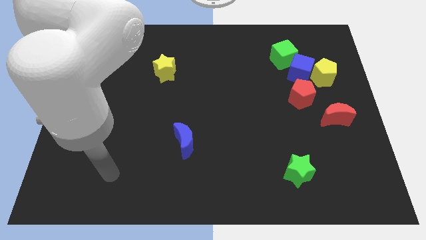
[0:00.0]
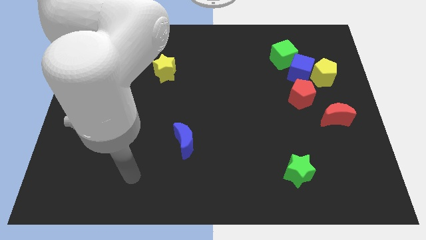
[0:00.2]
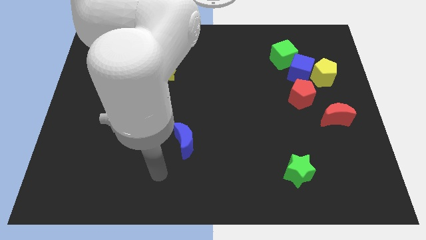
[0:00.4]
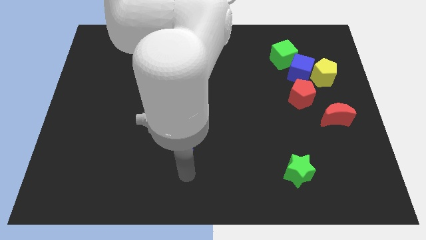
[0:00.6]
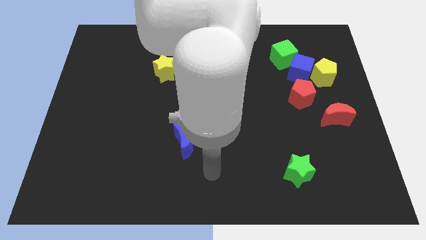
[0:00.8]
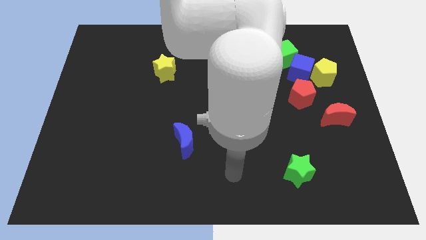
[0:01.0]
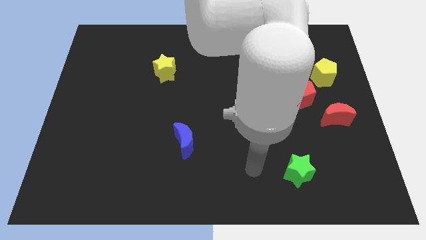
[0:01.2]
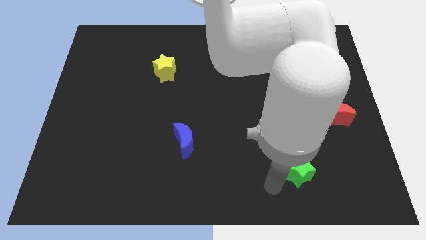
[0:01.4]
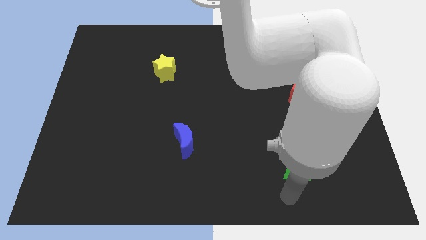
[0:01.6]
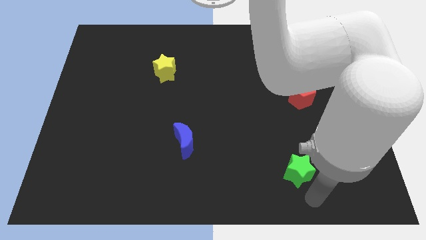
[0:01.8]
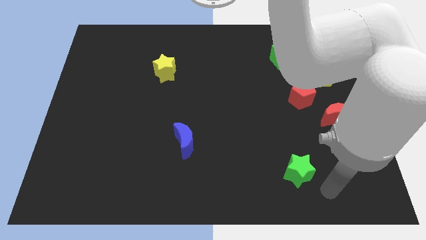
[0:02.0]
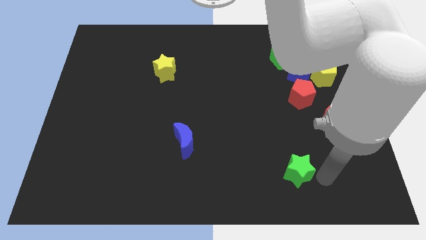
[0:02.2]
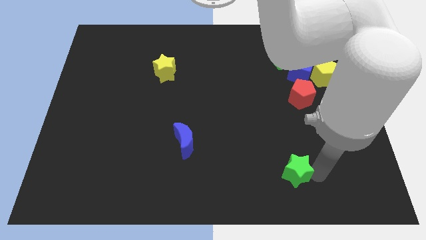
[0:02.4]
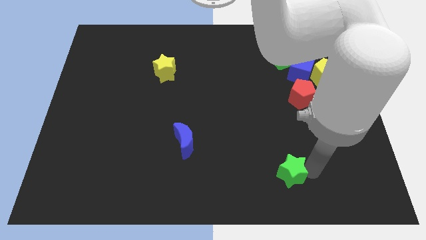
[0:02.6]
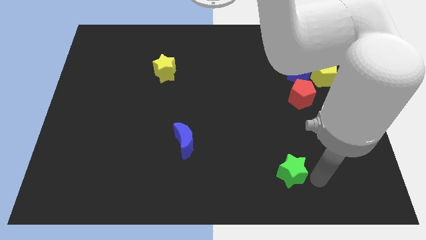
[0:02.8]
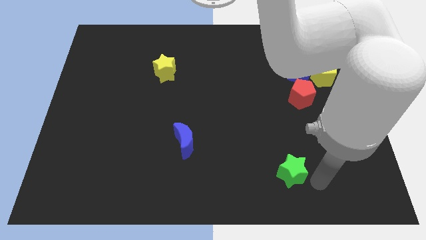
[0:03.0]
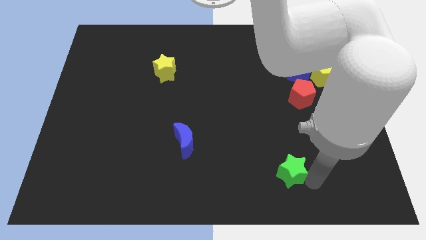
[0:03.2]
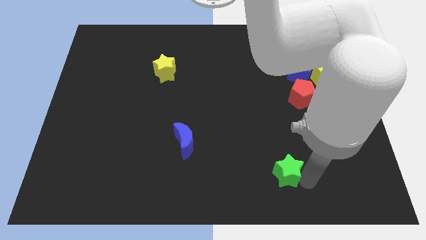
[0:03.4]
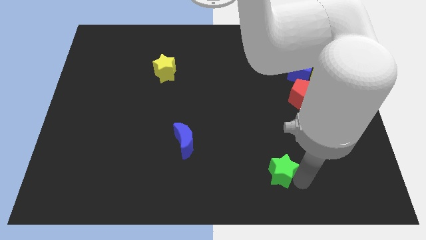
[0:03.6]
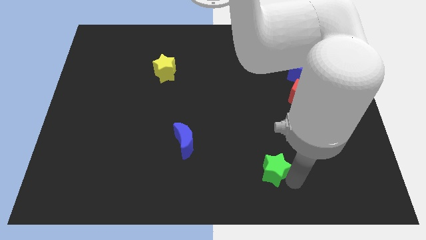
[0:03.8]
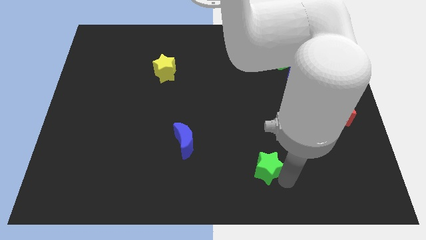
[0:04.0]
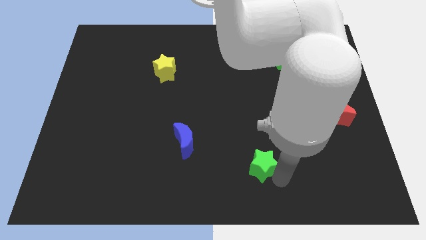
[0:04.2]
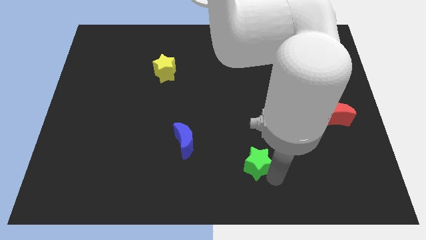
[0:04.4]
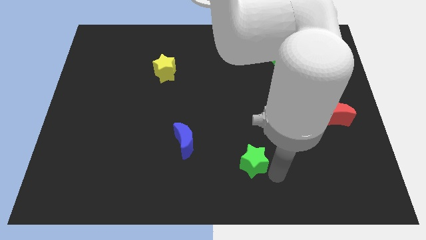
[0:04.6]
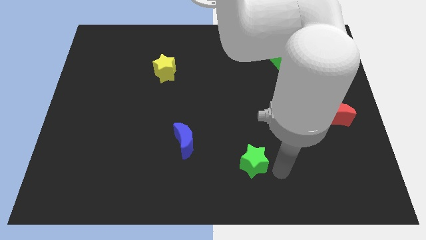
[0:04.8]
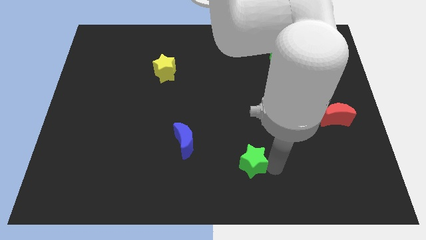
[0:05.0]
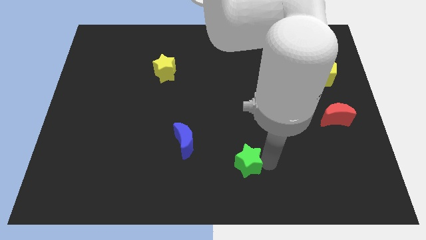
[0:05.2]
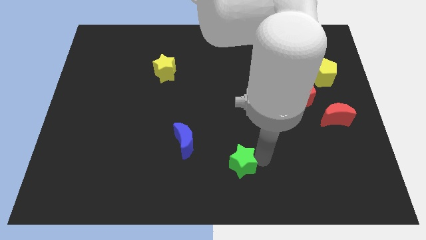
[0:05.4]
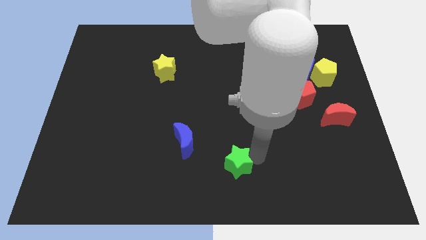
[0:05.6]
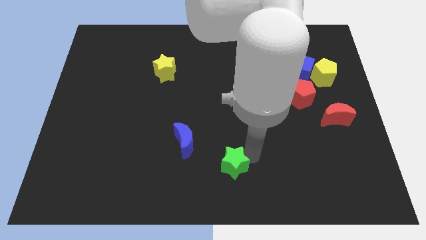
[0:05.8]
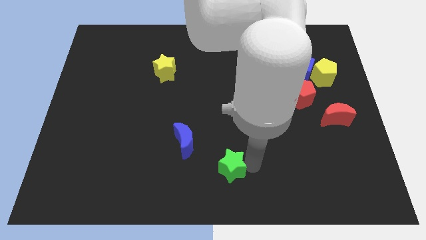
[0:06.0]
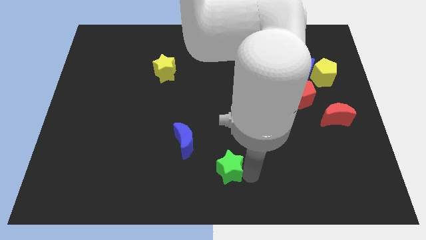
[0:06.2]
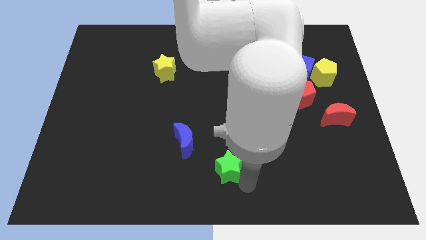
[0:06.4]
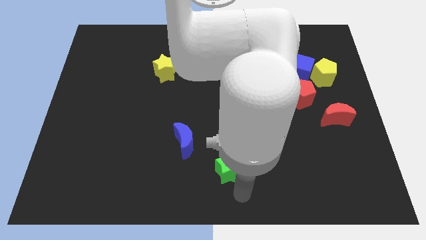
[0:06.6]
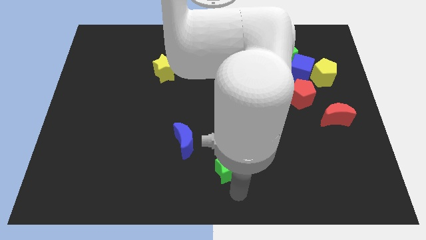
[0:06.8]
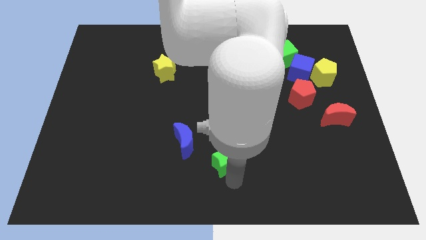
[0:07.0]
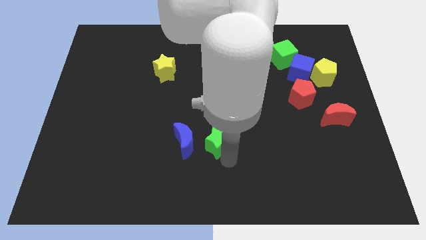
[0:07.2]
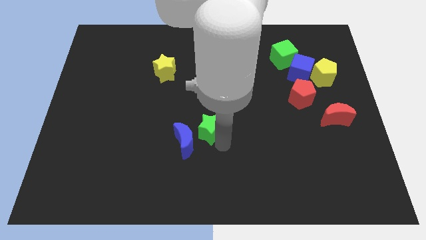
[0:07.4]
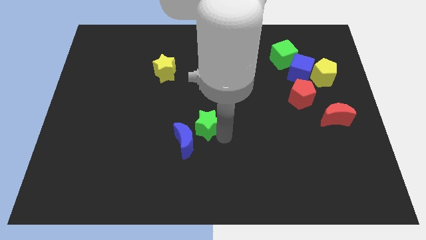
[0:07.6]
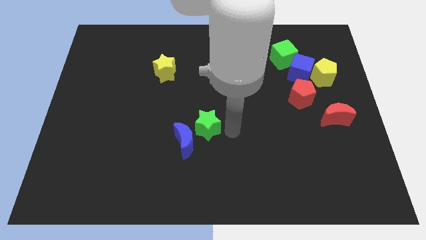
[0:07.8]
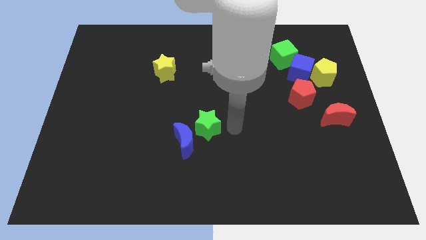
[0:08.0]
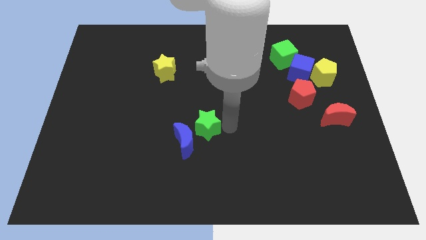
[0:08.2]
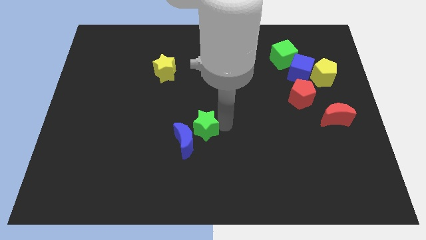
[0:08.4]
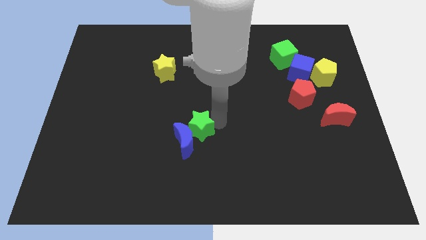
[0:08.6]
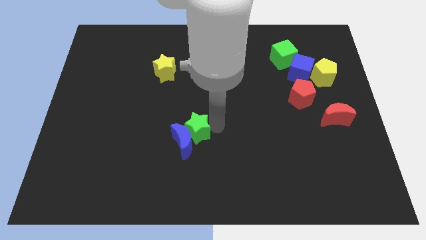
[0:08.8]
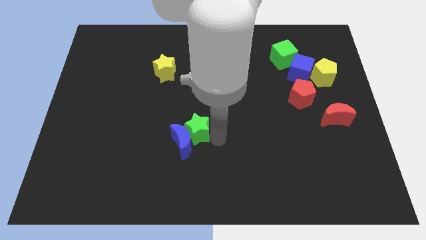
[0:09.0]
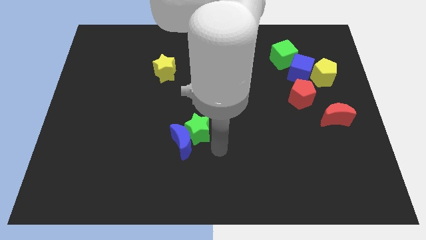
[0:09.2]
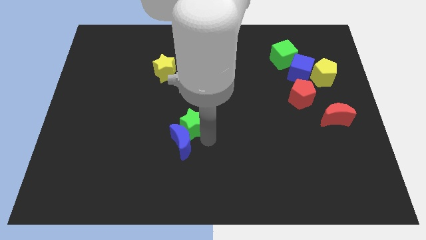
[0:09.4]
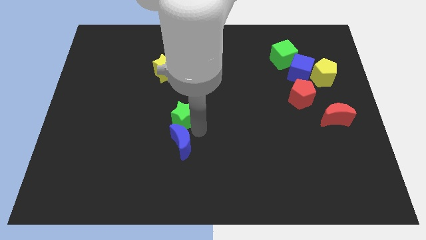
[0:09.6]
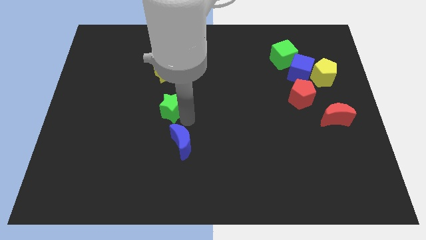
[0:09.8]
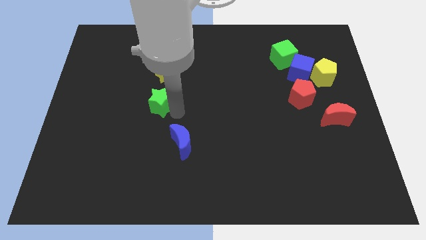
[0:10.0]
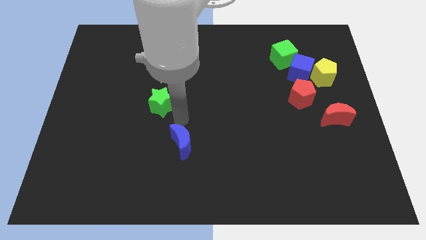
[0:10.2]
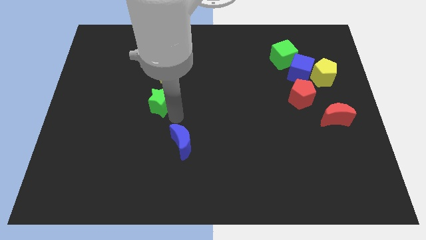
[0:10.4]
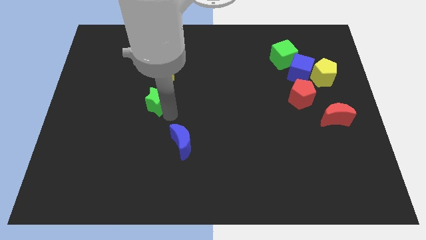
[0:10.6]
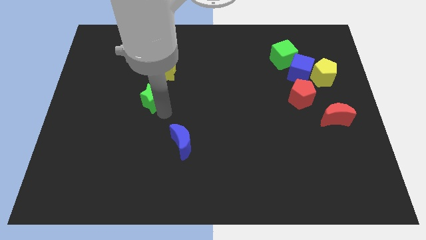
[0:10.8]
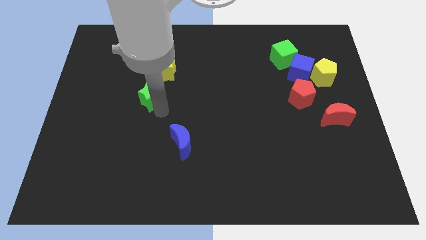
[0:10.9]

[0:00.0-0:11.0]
move the green star diagonally down and to the left of the yellow star
